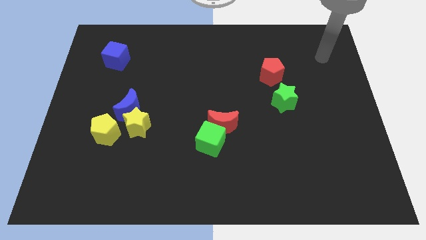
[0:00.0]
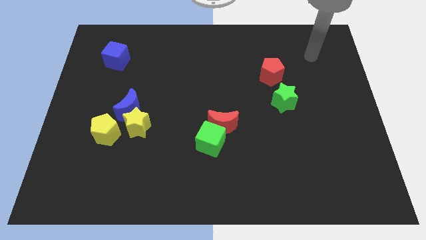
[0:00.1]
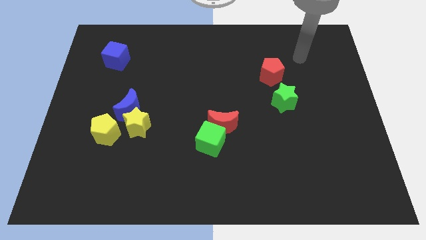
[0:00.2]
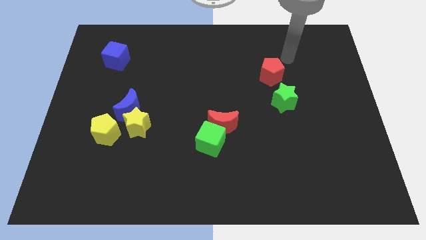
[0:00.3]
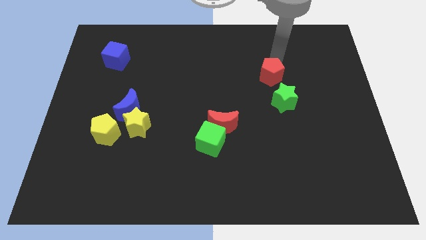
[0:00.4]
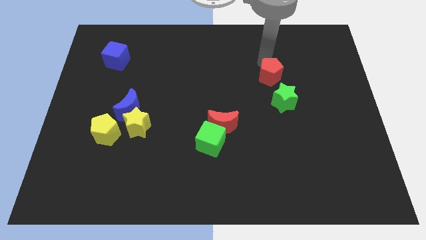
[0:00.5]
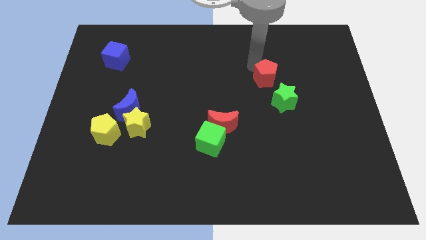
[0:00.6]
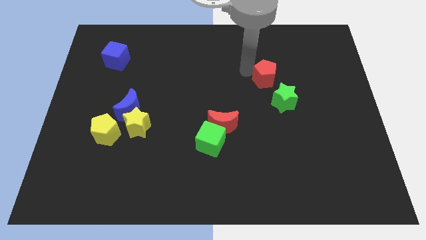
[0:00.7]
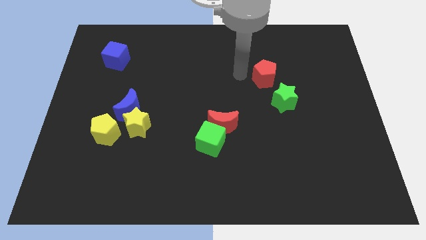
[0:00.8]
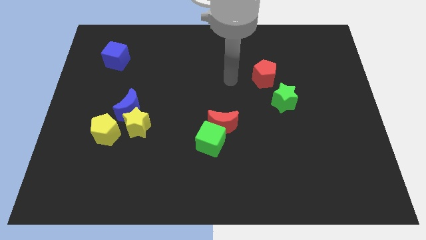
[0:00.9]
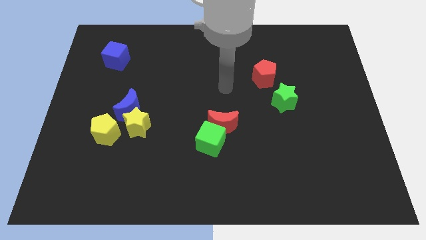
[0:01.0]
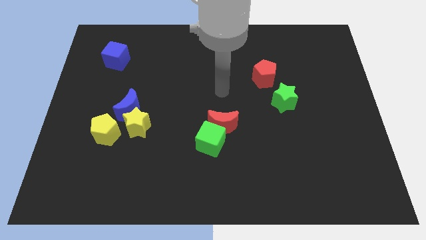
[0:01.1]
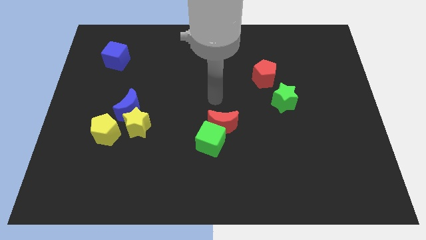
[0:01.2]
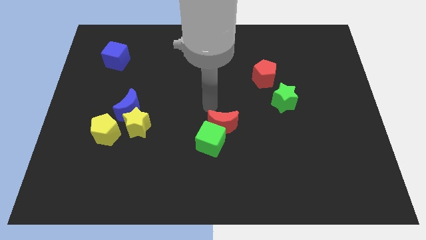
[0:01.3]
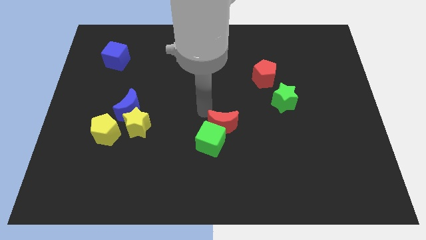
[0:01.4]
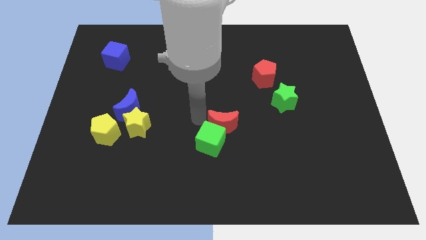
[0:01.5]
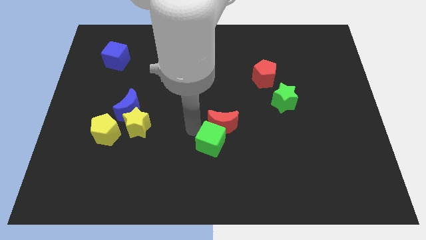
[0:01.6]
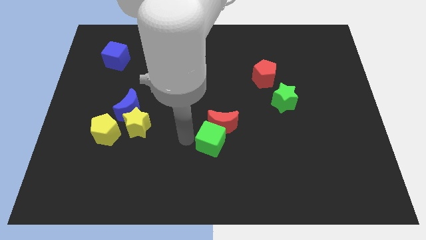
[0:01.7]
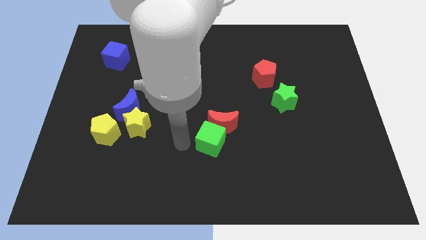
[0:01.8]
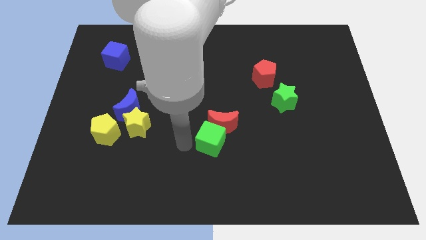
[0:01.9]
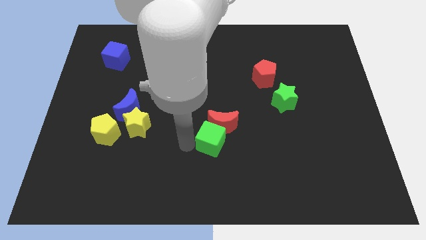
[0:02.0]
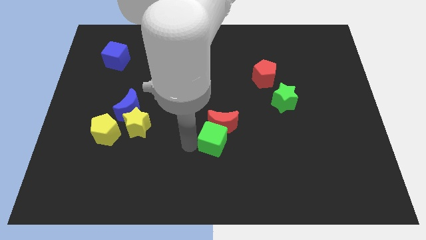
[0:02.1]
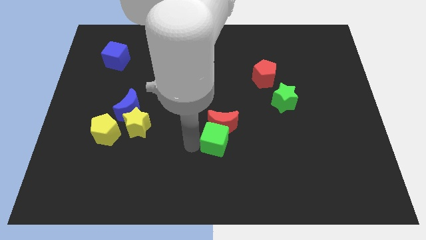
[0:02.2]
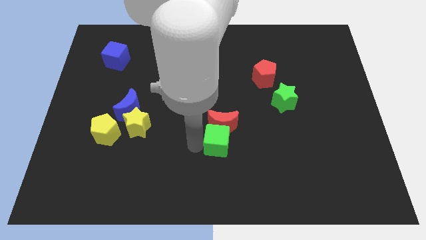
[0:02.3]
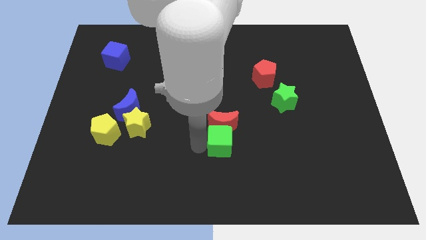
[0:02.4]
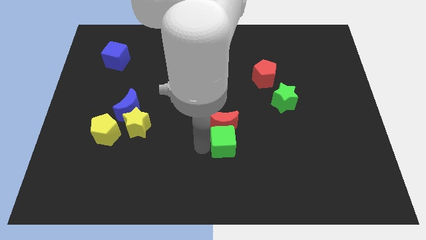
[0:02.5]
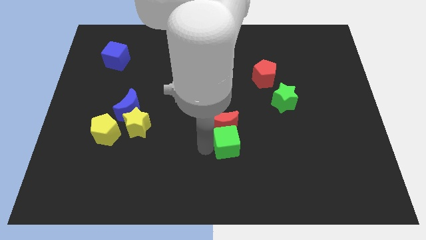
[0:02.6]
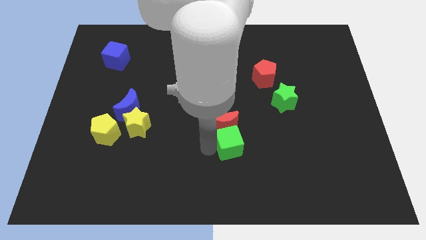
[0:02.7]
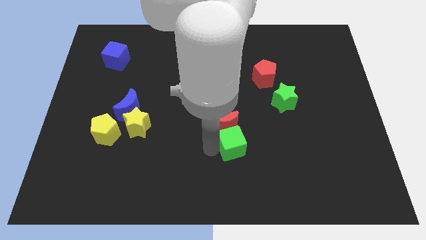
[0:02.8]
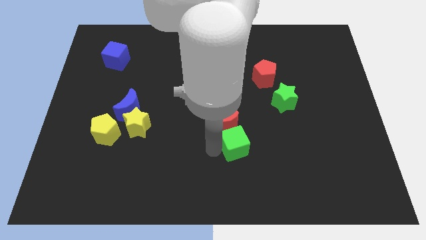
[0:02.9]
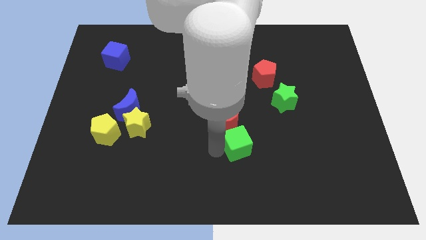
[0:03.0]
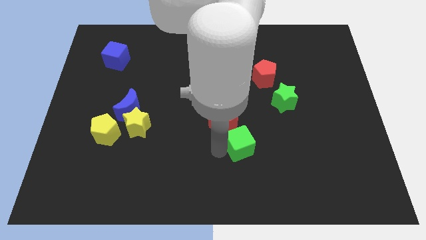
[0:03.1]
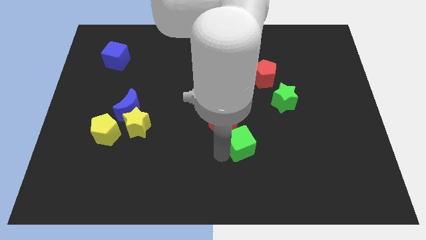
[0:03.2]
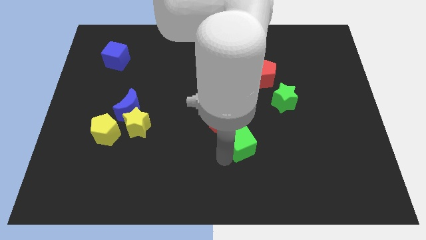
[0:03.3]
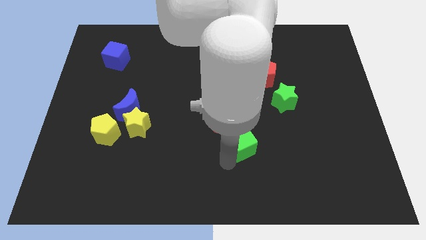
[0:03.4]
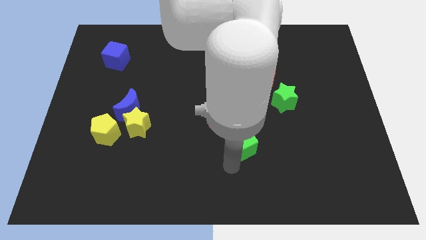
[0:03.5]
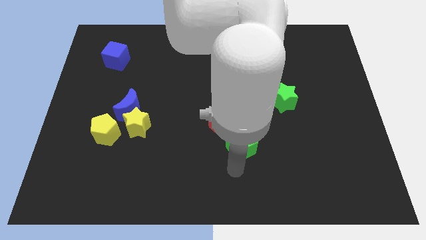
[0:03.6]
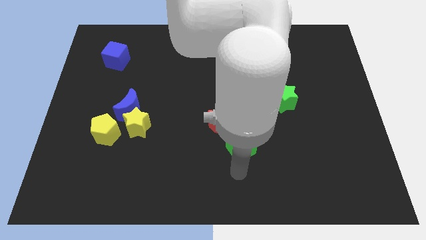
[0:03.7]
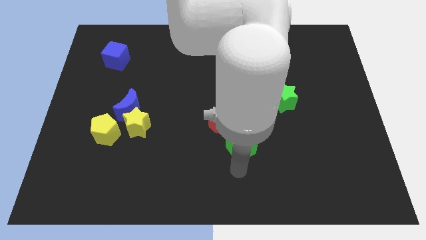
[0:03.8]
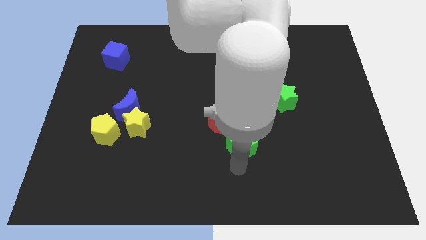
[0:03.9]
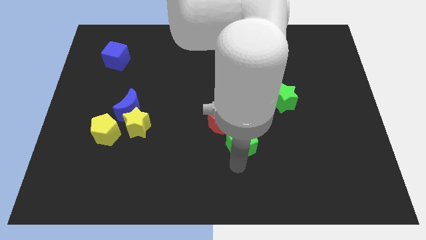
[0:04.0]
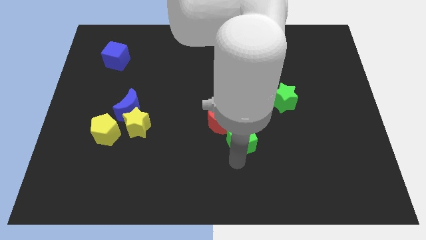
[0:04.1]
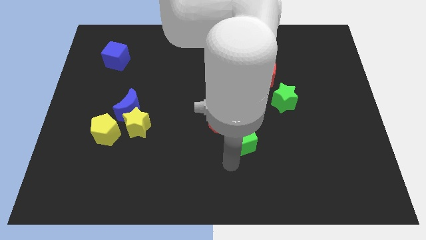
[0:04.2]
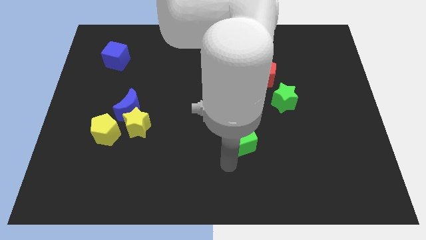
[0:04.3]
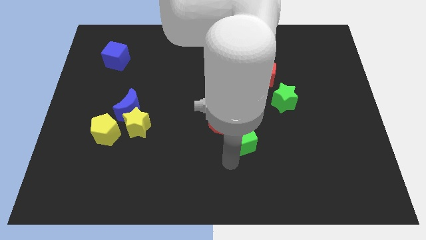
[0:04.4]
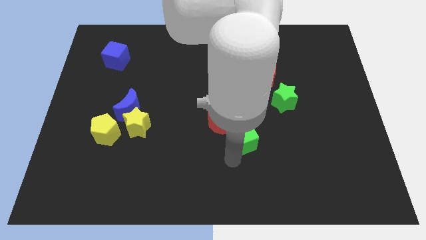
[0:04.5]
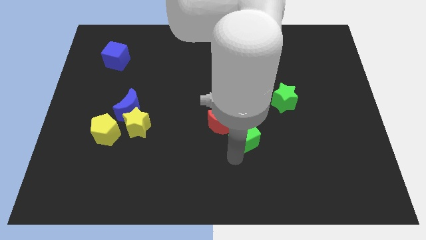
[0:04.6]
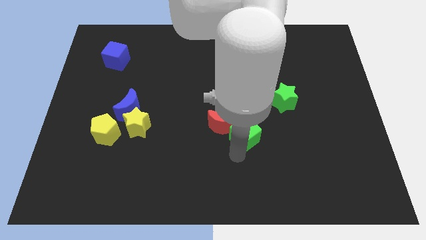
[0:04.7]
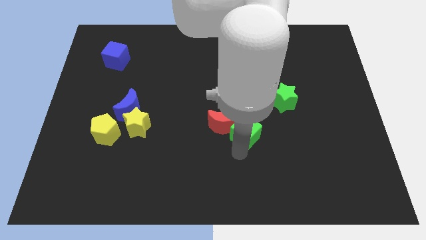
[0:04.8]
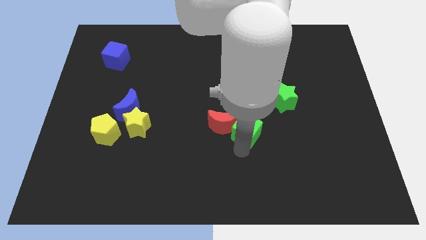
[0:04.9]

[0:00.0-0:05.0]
push the green cube upwards and then to the right a little

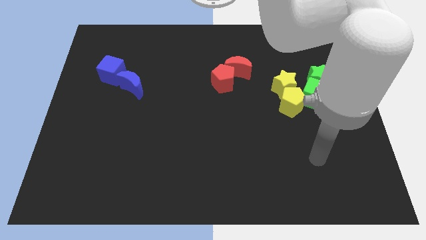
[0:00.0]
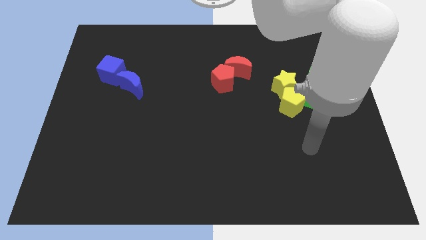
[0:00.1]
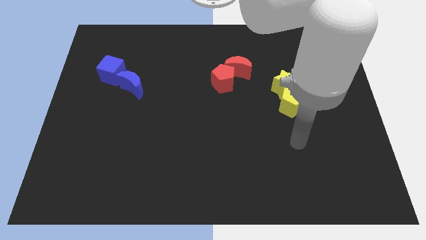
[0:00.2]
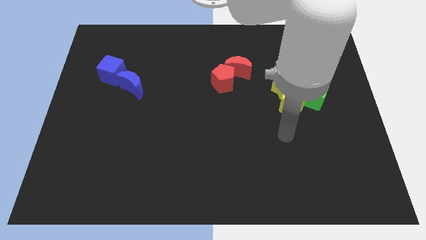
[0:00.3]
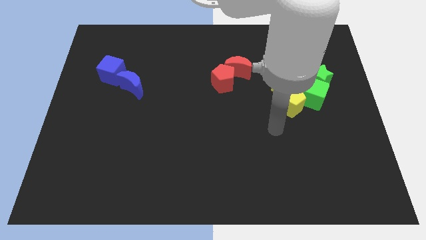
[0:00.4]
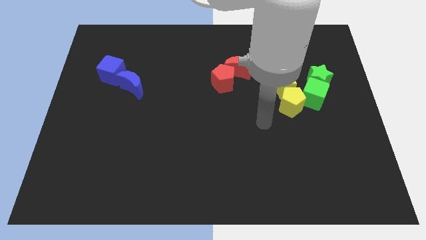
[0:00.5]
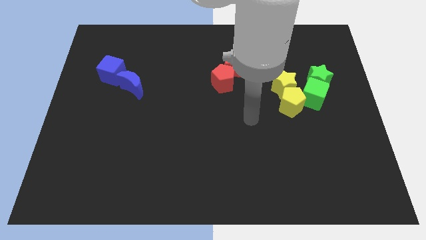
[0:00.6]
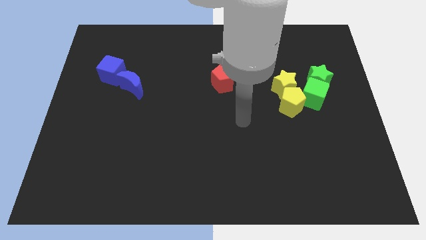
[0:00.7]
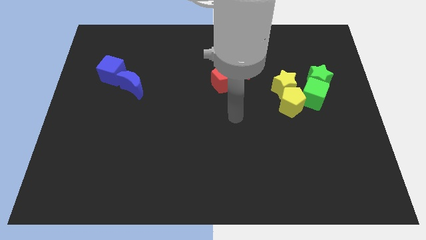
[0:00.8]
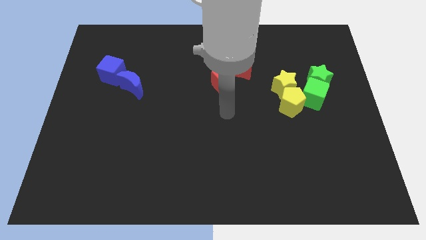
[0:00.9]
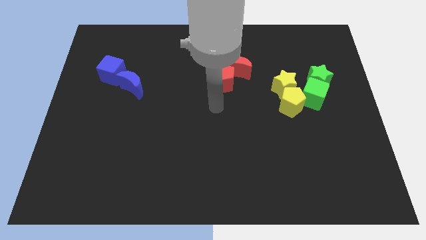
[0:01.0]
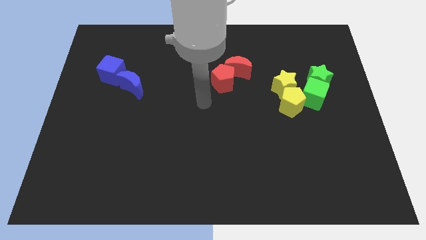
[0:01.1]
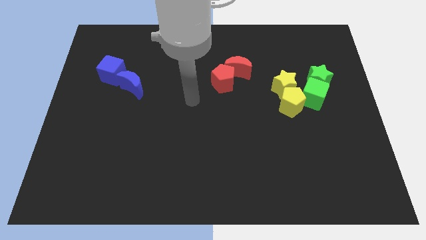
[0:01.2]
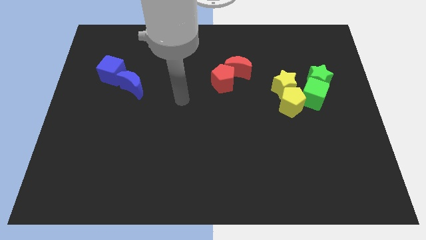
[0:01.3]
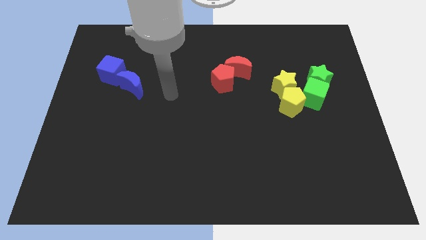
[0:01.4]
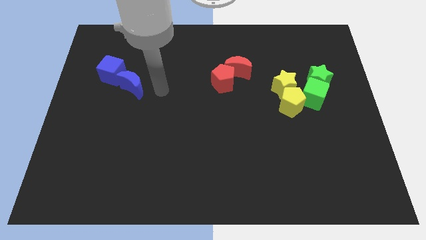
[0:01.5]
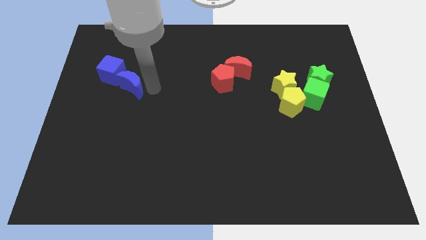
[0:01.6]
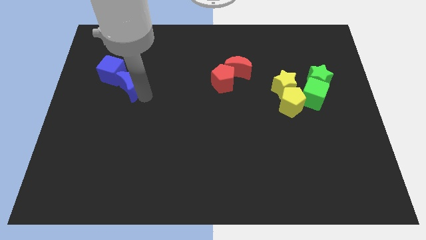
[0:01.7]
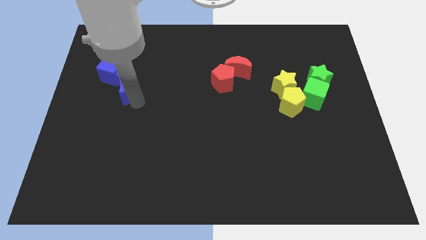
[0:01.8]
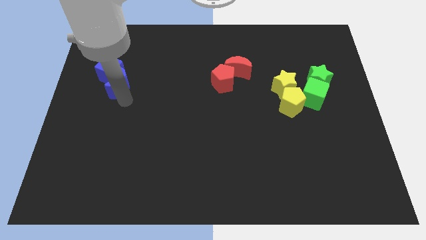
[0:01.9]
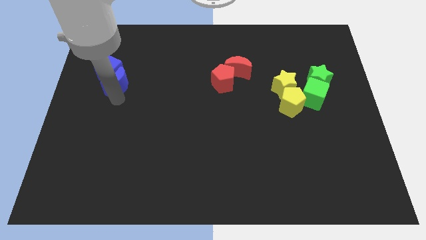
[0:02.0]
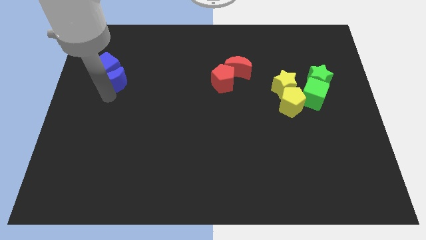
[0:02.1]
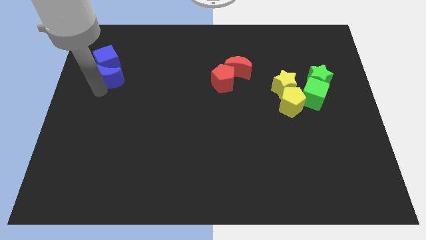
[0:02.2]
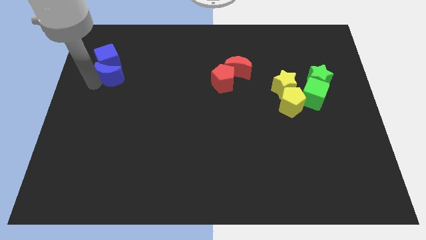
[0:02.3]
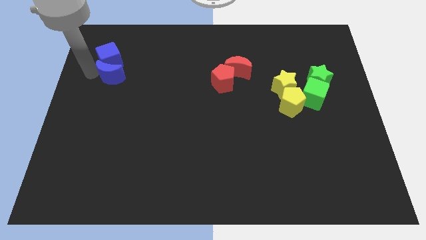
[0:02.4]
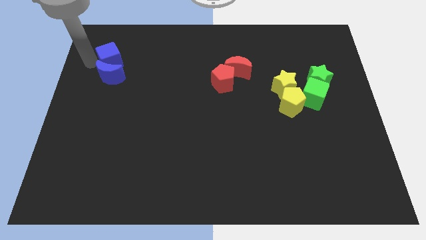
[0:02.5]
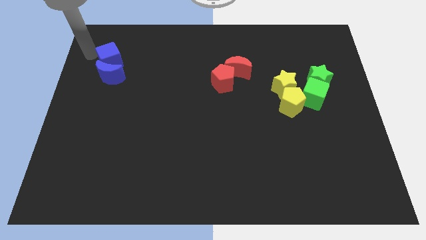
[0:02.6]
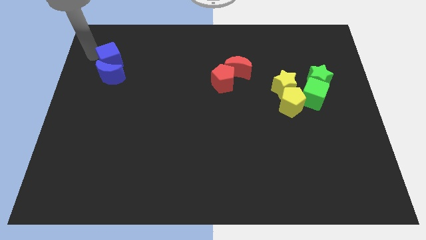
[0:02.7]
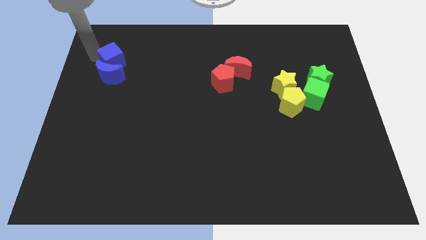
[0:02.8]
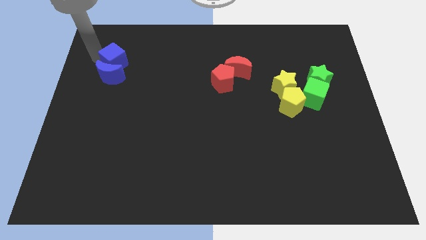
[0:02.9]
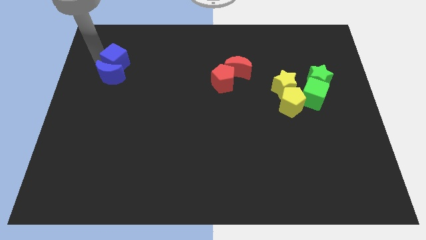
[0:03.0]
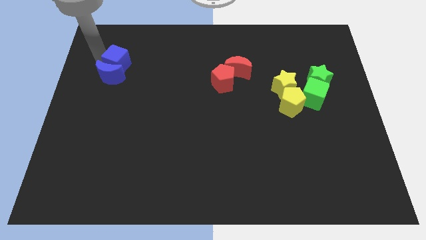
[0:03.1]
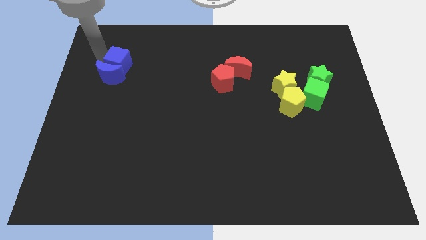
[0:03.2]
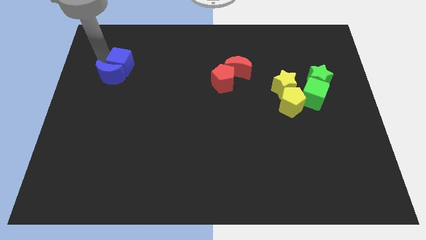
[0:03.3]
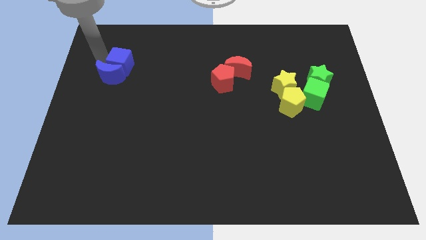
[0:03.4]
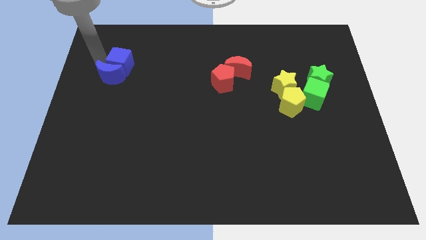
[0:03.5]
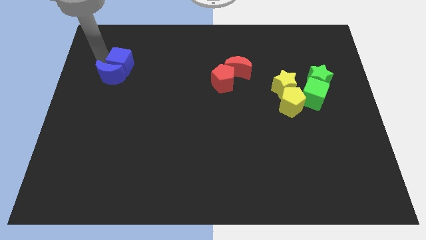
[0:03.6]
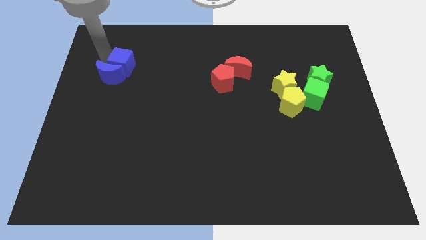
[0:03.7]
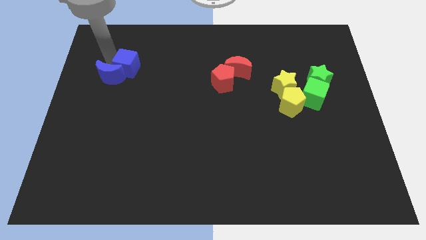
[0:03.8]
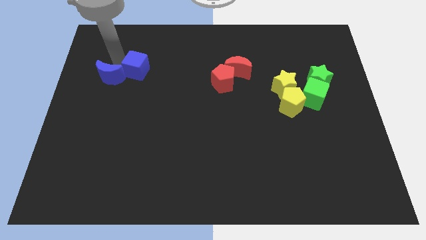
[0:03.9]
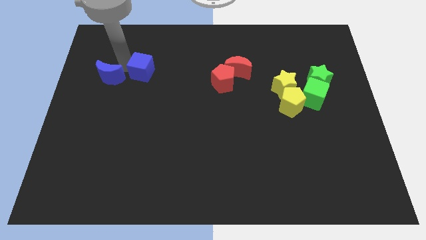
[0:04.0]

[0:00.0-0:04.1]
slightly push the blue cube right
